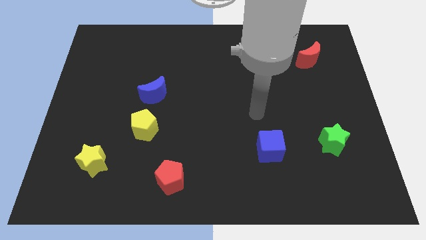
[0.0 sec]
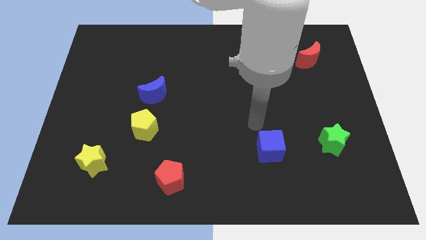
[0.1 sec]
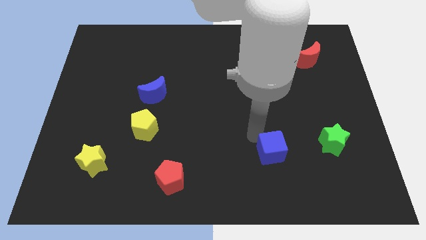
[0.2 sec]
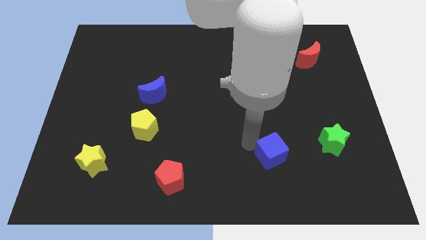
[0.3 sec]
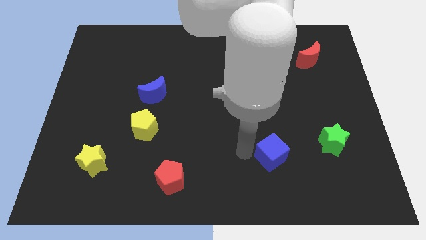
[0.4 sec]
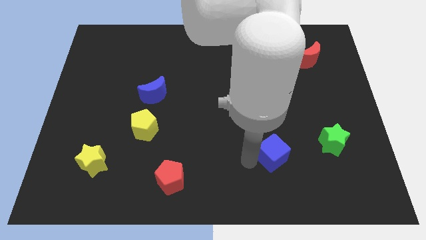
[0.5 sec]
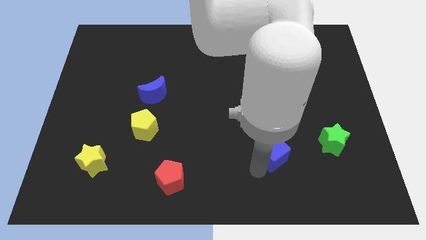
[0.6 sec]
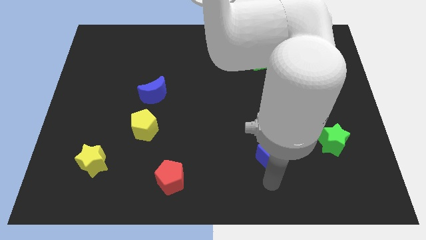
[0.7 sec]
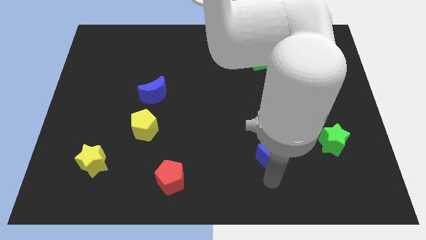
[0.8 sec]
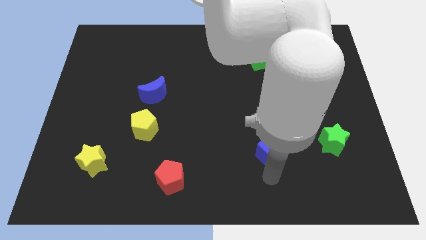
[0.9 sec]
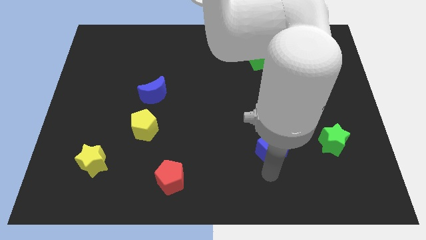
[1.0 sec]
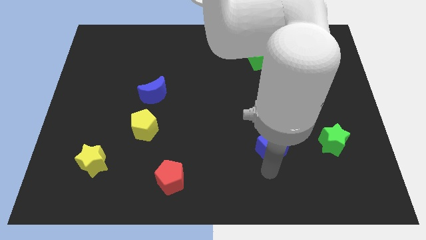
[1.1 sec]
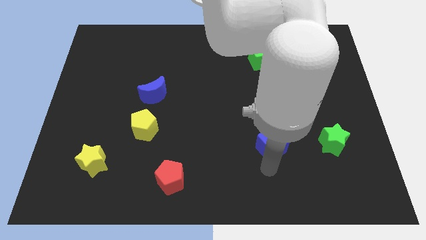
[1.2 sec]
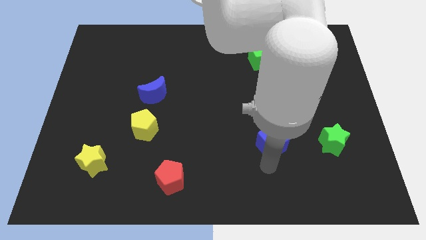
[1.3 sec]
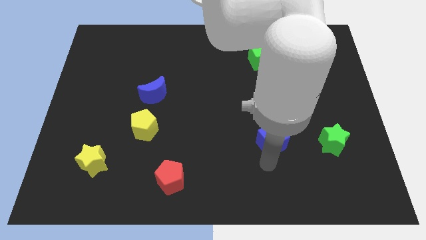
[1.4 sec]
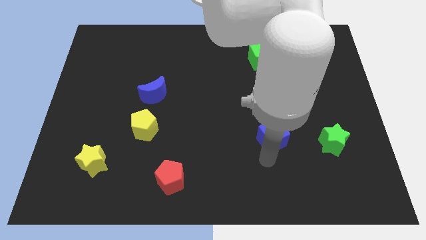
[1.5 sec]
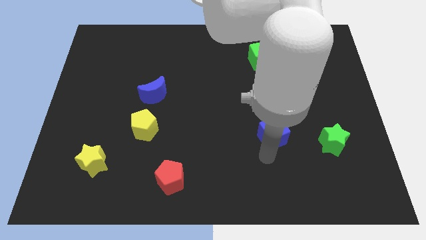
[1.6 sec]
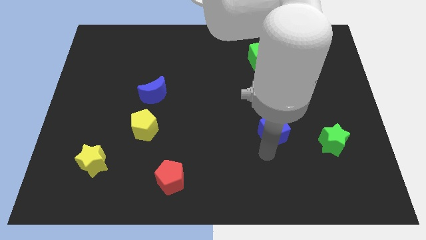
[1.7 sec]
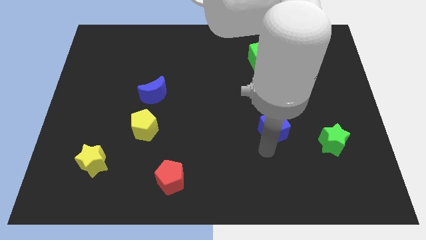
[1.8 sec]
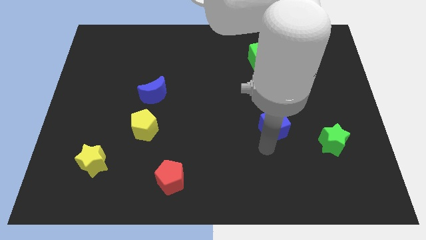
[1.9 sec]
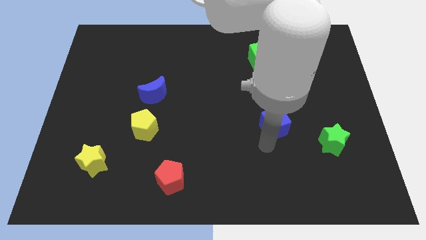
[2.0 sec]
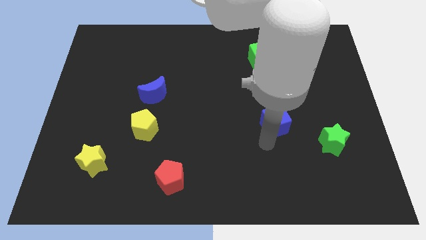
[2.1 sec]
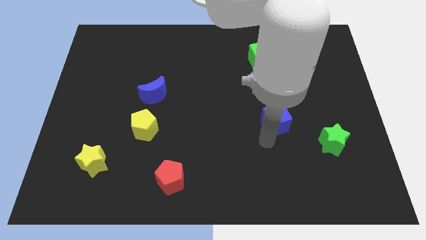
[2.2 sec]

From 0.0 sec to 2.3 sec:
move the blue cube somewhat up

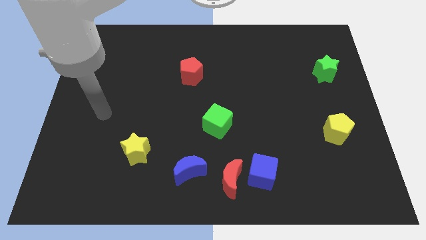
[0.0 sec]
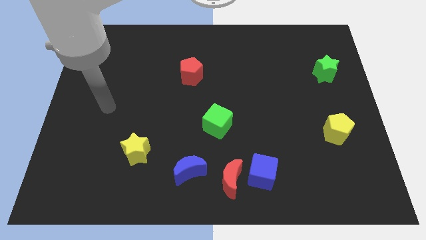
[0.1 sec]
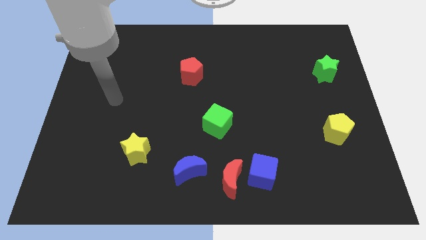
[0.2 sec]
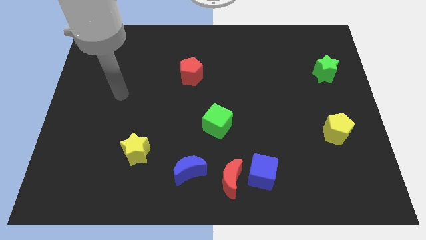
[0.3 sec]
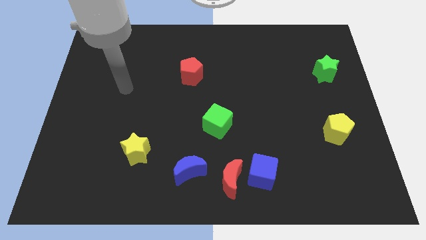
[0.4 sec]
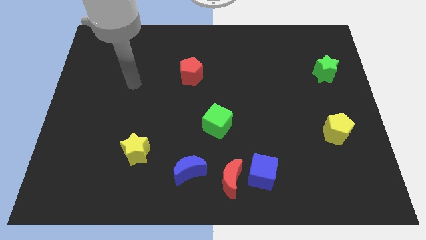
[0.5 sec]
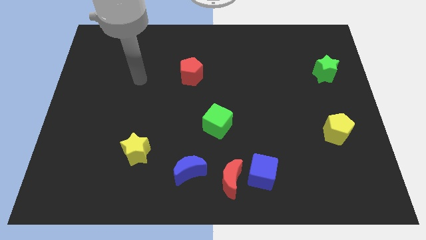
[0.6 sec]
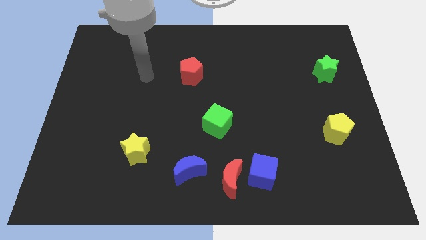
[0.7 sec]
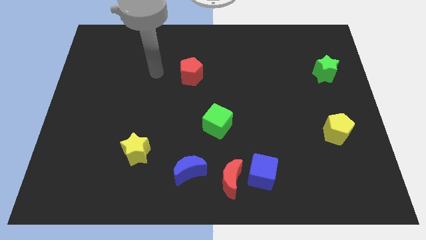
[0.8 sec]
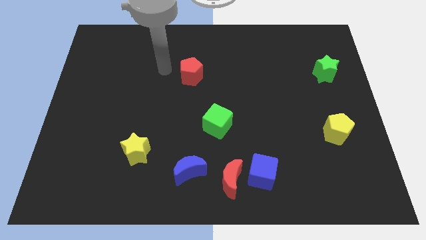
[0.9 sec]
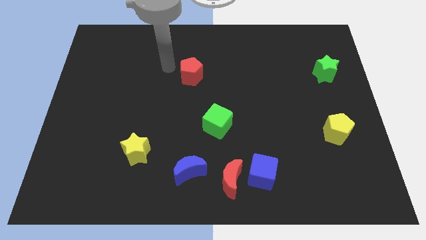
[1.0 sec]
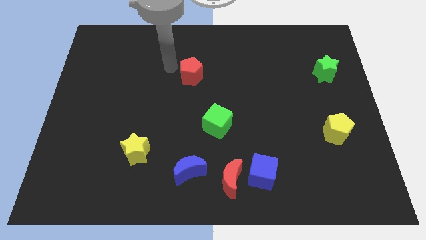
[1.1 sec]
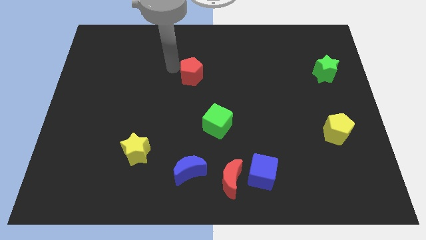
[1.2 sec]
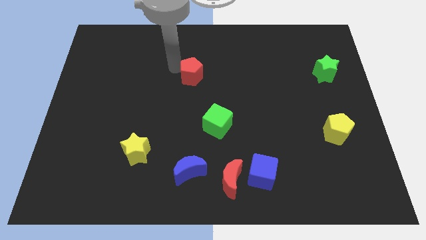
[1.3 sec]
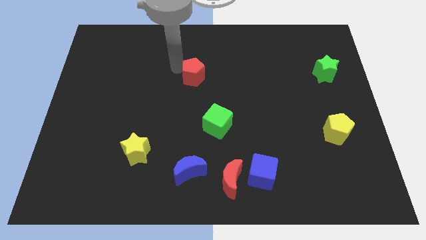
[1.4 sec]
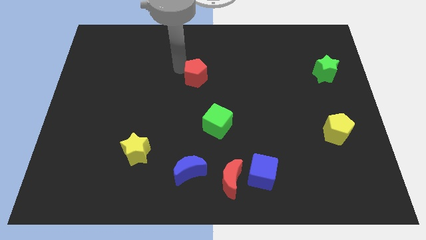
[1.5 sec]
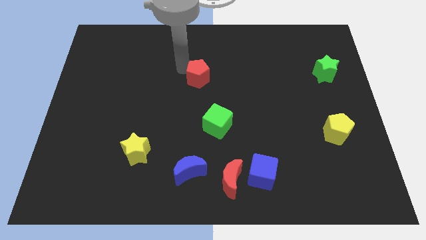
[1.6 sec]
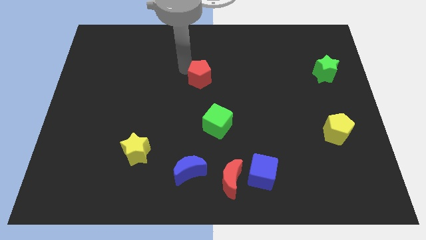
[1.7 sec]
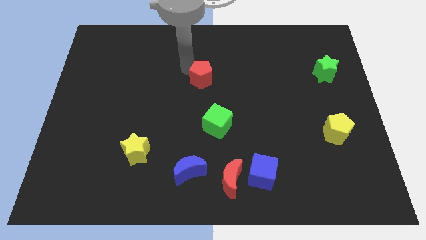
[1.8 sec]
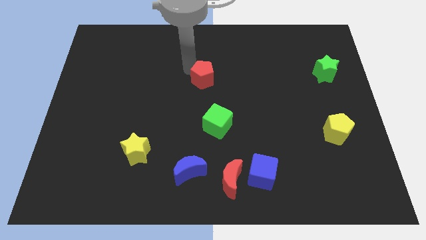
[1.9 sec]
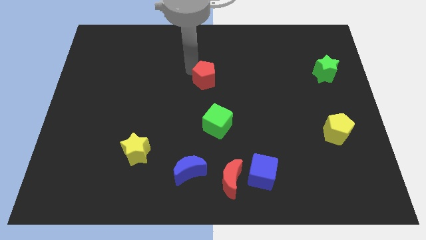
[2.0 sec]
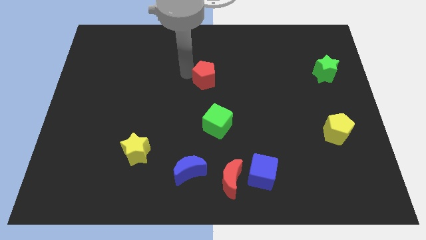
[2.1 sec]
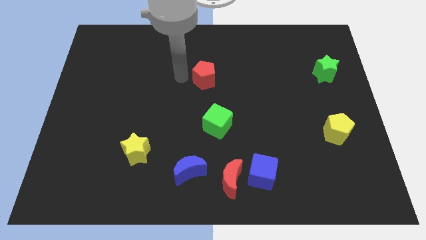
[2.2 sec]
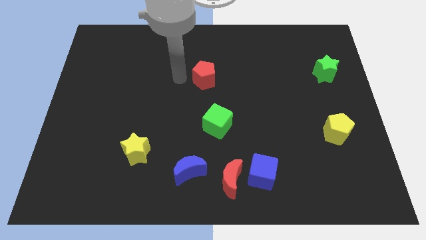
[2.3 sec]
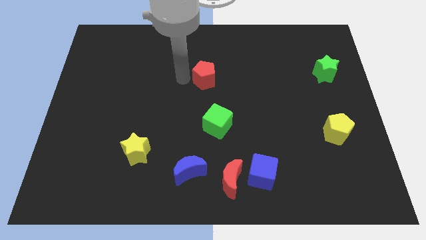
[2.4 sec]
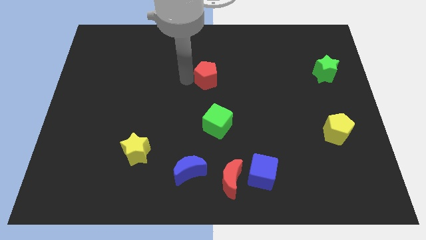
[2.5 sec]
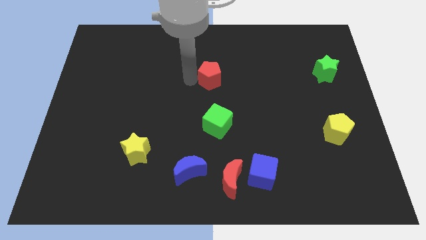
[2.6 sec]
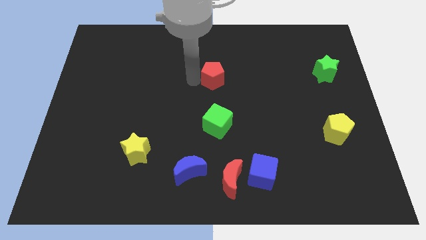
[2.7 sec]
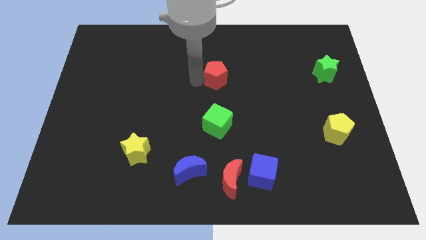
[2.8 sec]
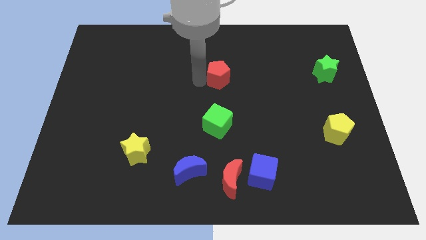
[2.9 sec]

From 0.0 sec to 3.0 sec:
slide the red pentagon a little right

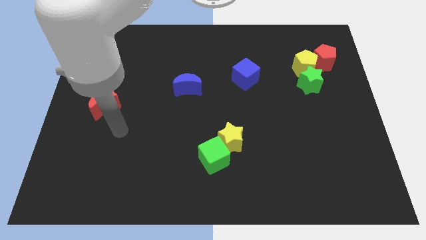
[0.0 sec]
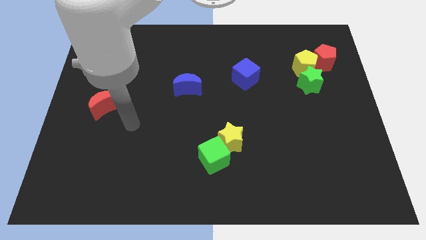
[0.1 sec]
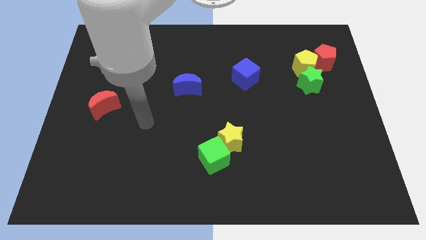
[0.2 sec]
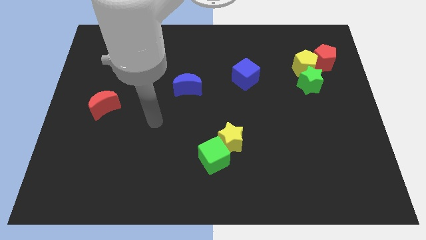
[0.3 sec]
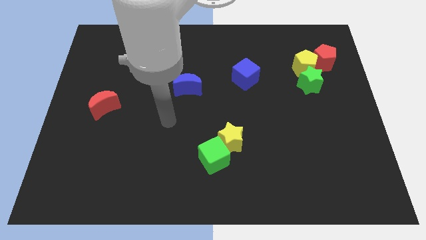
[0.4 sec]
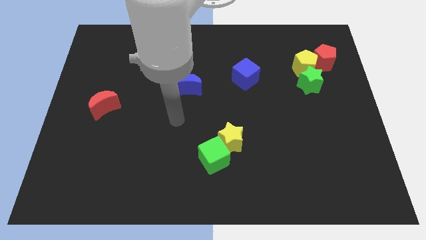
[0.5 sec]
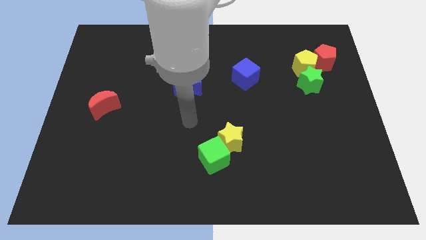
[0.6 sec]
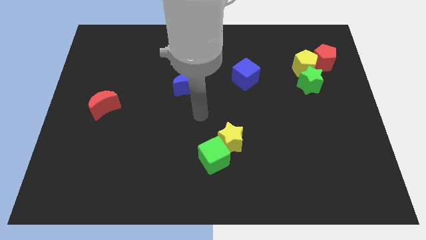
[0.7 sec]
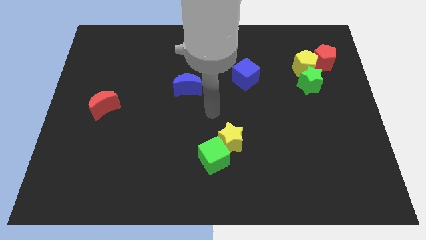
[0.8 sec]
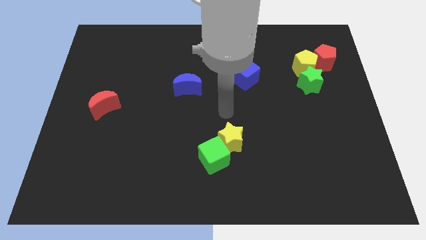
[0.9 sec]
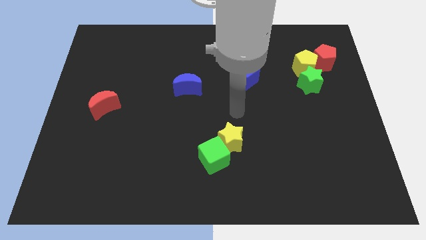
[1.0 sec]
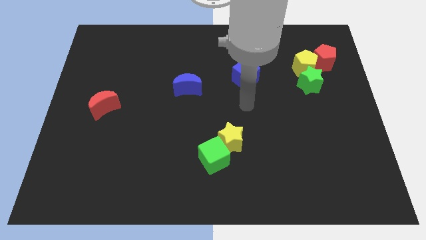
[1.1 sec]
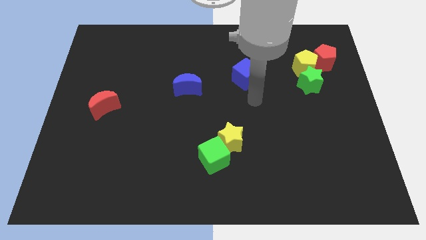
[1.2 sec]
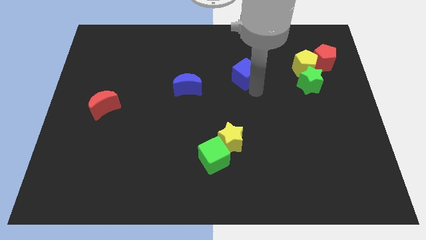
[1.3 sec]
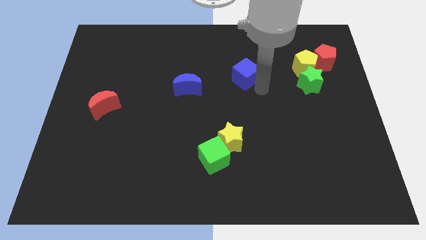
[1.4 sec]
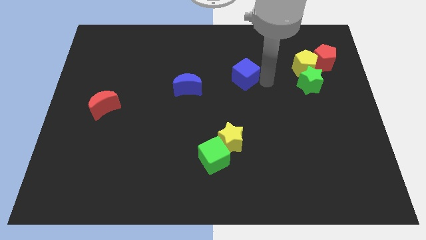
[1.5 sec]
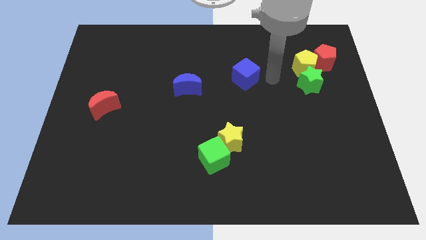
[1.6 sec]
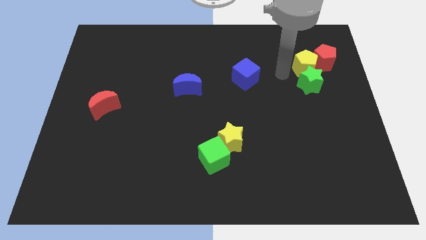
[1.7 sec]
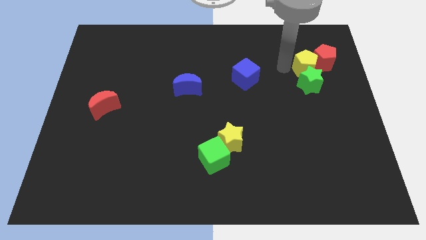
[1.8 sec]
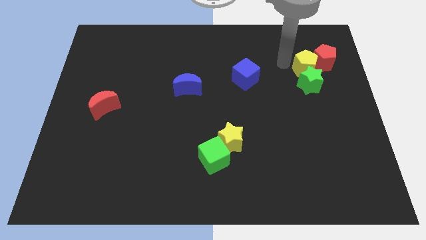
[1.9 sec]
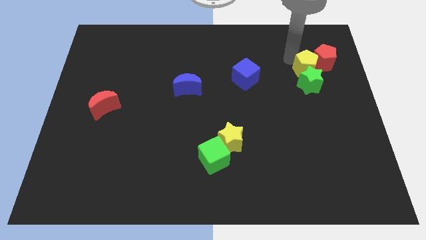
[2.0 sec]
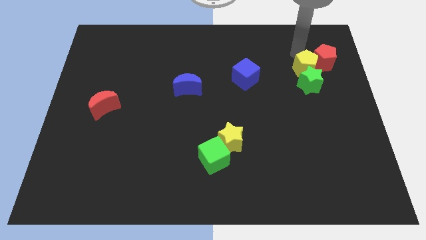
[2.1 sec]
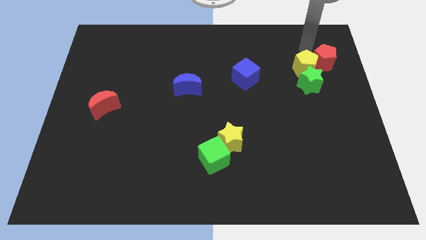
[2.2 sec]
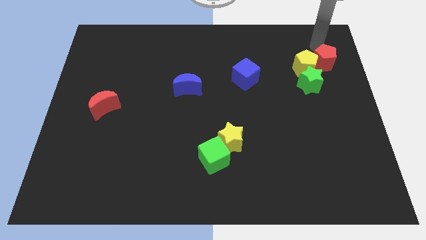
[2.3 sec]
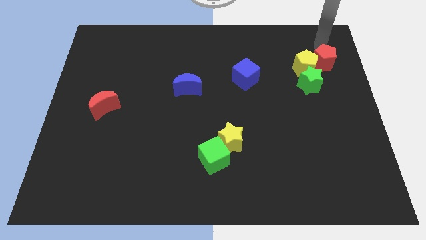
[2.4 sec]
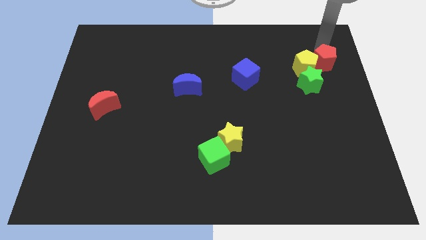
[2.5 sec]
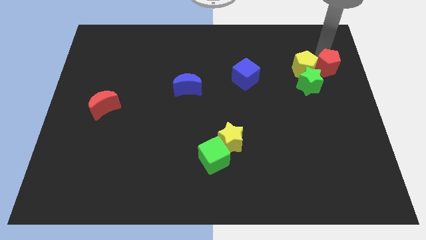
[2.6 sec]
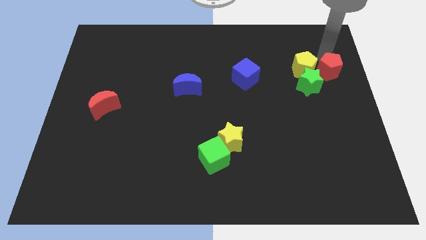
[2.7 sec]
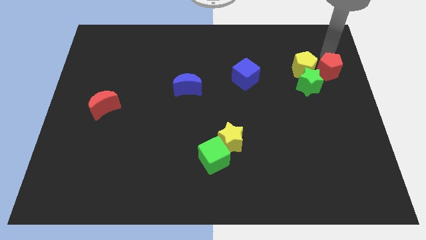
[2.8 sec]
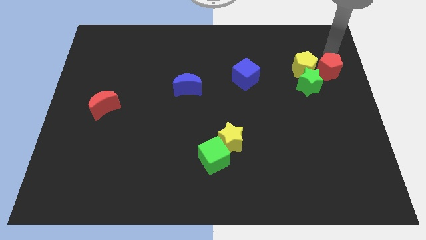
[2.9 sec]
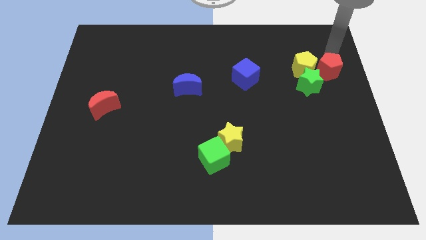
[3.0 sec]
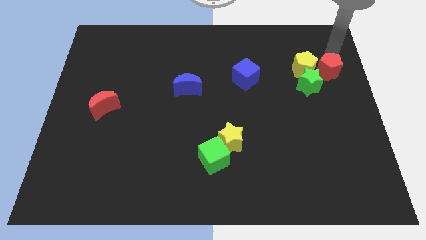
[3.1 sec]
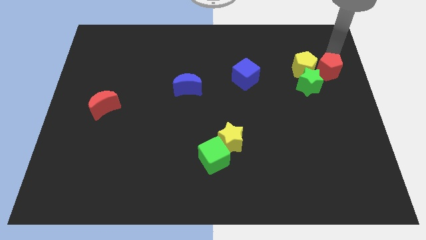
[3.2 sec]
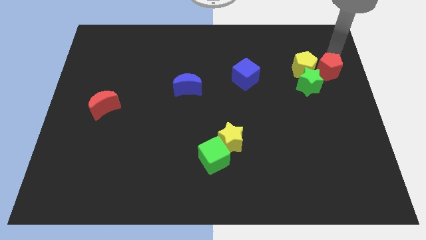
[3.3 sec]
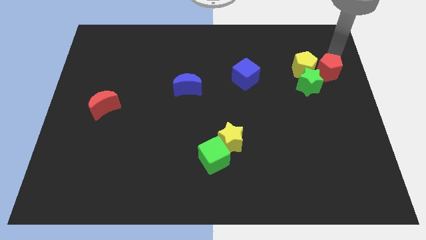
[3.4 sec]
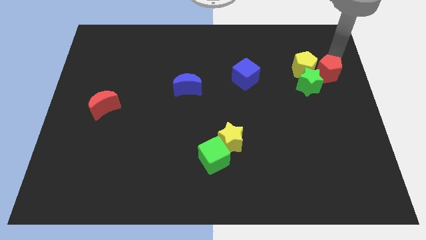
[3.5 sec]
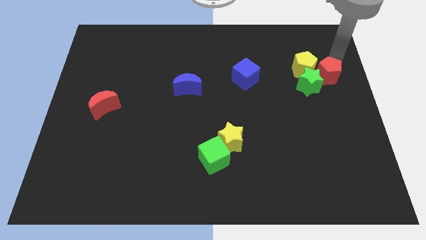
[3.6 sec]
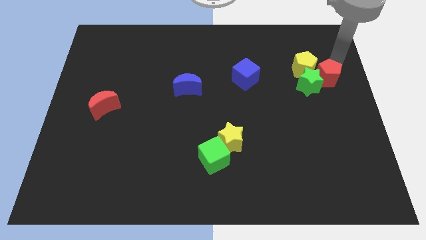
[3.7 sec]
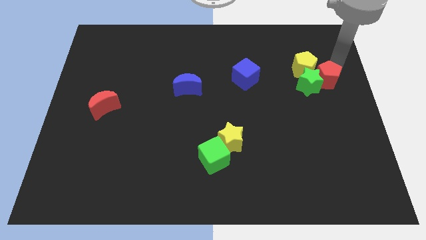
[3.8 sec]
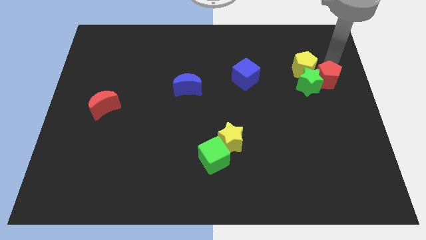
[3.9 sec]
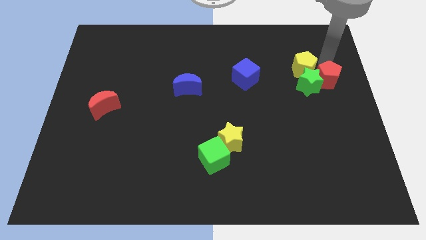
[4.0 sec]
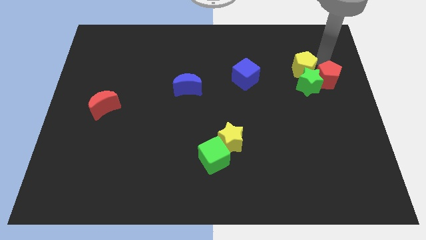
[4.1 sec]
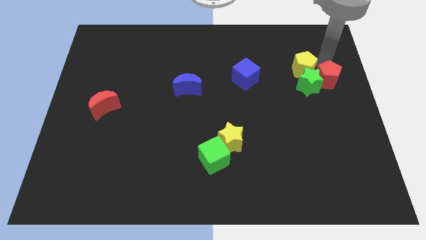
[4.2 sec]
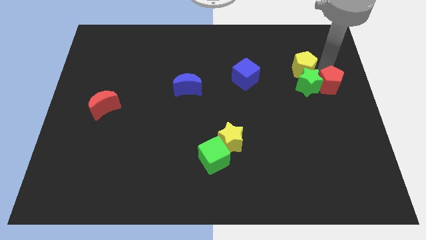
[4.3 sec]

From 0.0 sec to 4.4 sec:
move the red pentagon downwards somewhat
